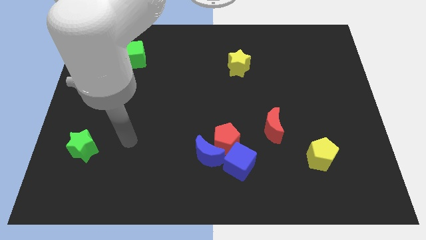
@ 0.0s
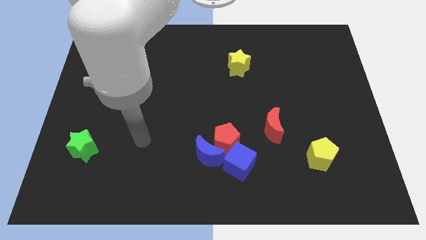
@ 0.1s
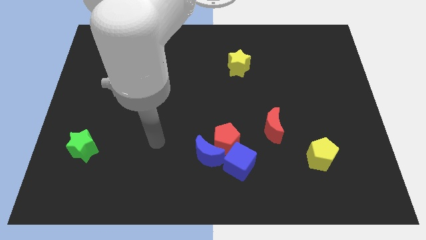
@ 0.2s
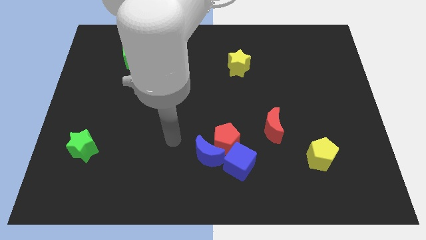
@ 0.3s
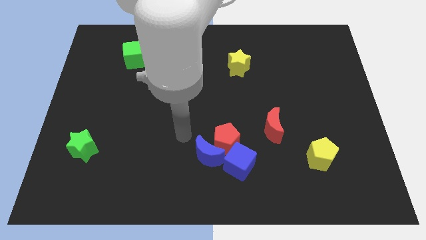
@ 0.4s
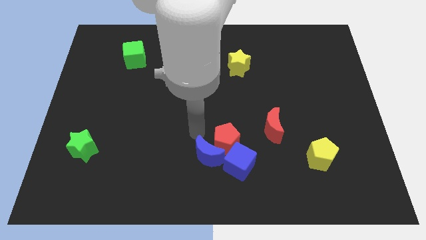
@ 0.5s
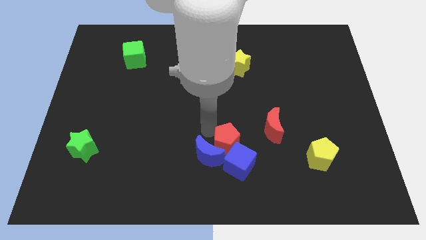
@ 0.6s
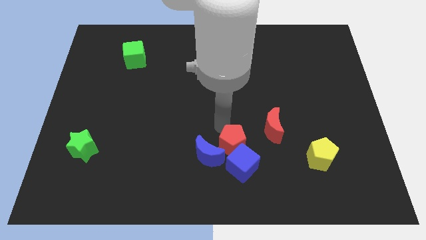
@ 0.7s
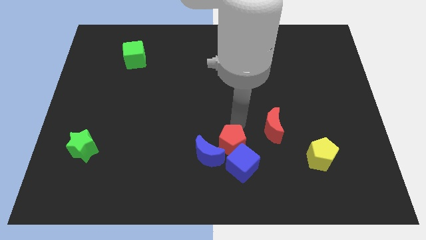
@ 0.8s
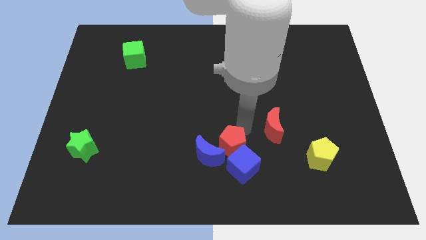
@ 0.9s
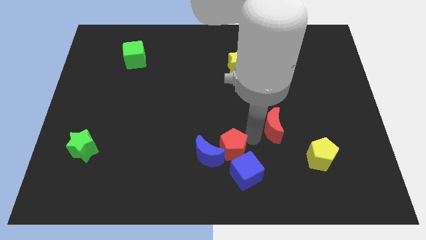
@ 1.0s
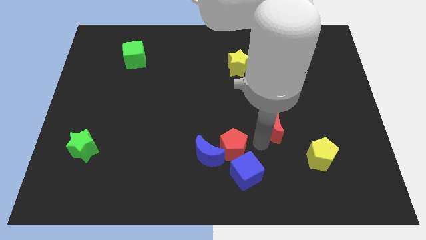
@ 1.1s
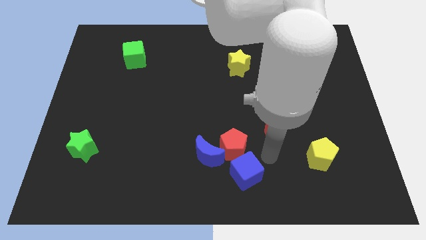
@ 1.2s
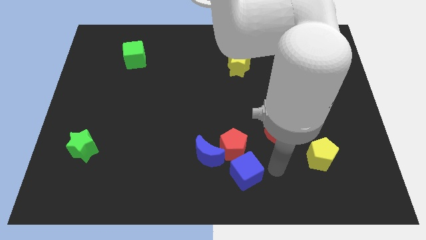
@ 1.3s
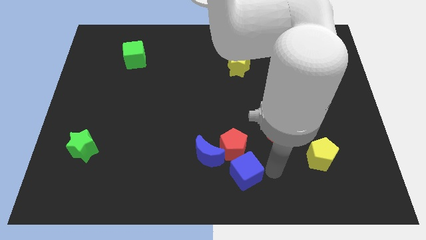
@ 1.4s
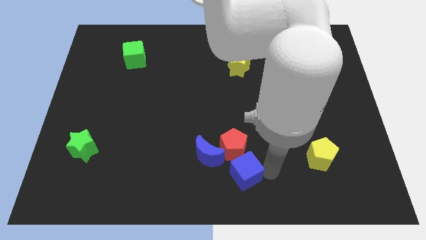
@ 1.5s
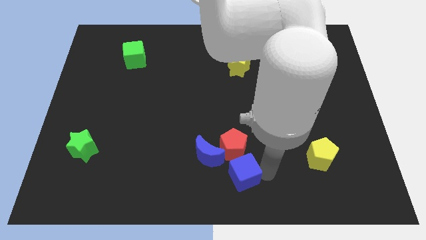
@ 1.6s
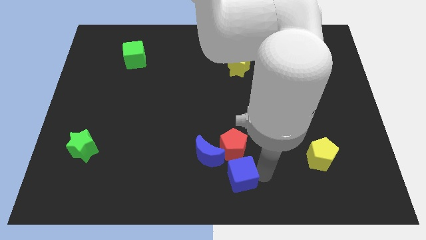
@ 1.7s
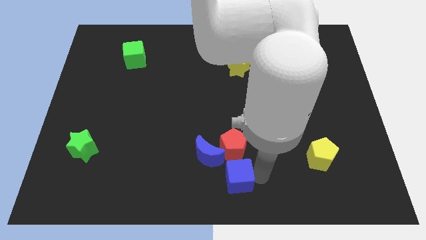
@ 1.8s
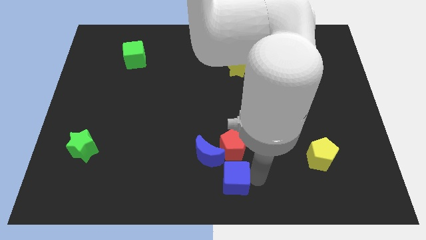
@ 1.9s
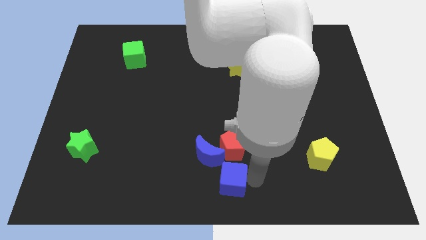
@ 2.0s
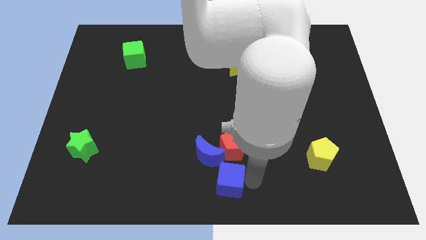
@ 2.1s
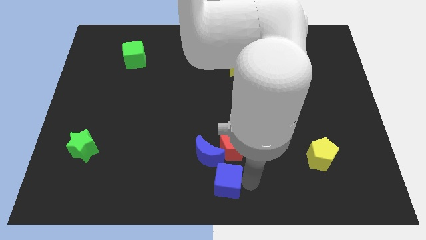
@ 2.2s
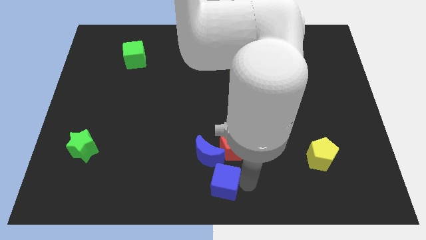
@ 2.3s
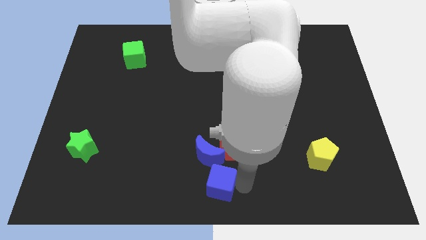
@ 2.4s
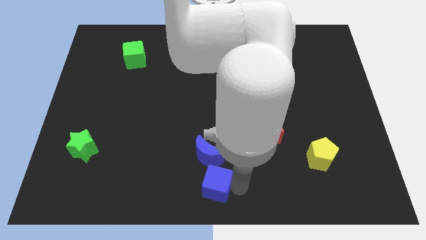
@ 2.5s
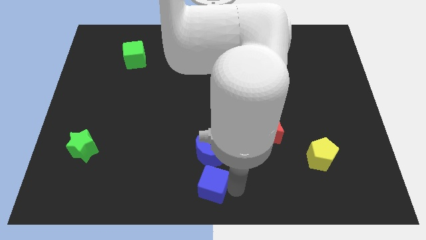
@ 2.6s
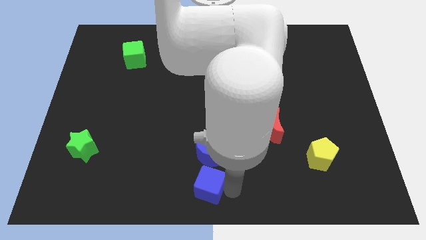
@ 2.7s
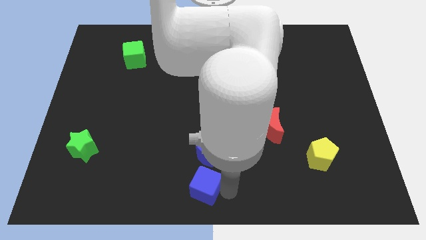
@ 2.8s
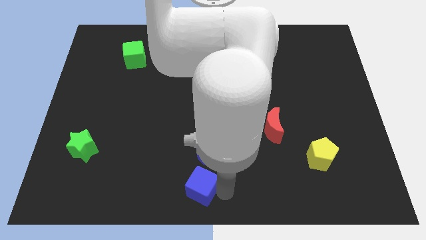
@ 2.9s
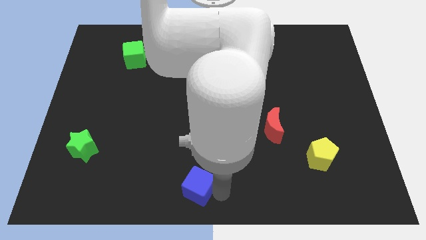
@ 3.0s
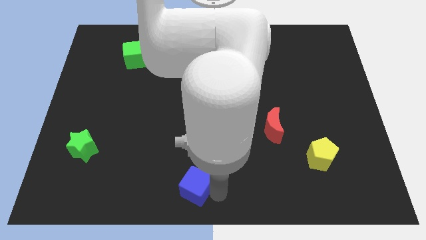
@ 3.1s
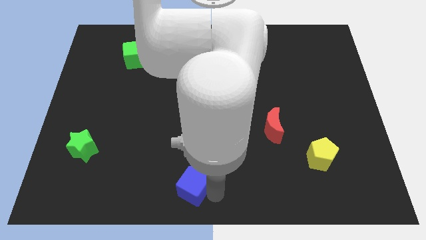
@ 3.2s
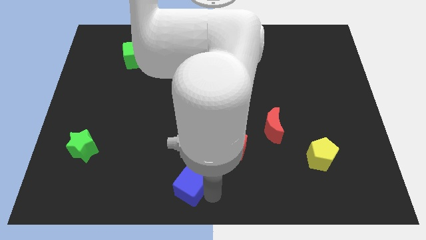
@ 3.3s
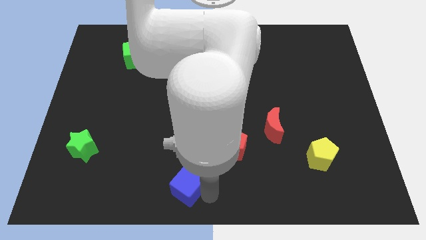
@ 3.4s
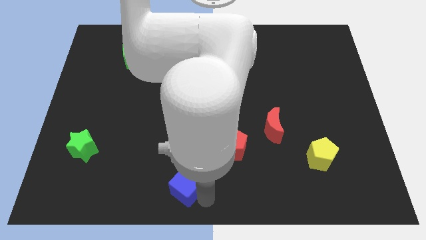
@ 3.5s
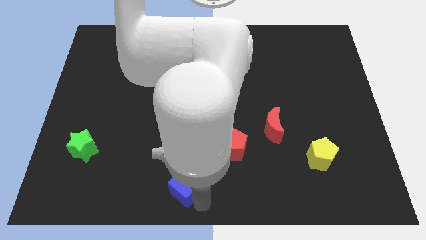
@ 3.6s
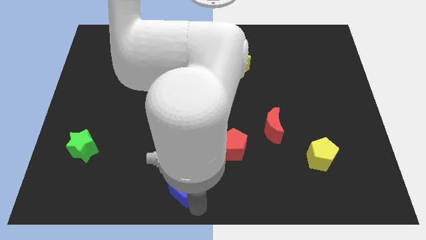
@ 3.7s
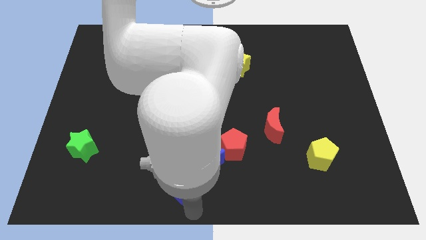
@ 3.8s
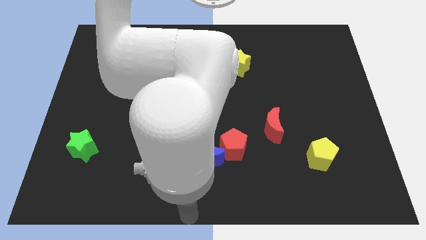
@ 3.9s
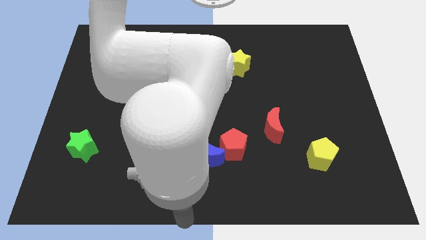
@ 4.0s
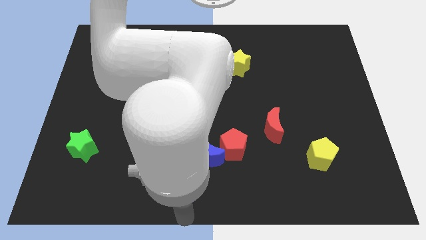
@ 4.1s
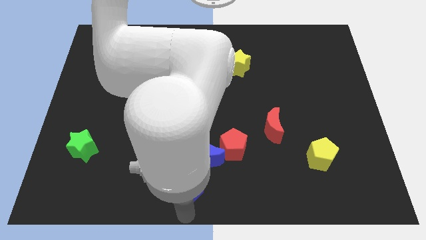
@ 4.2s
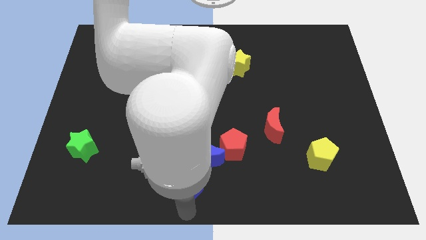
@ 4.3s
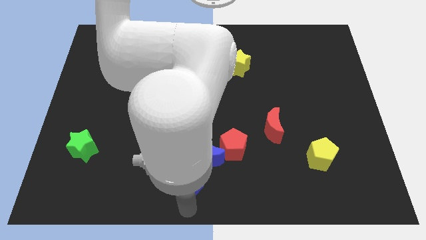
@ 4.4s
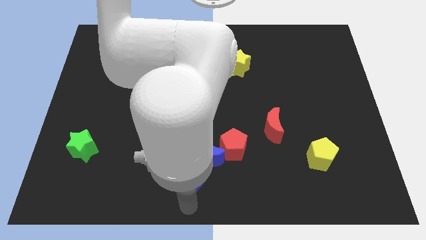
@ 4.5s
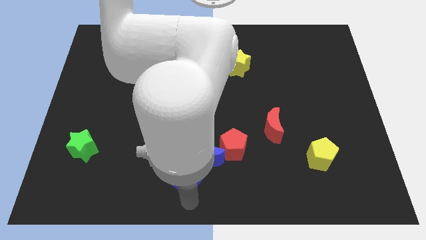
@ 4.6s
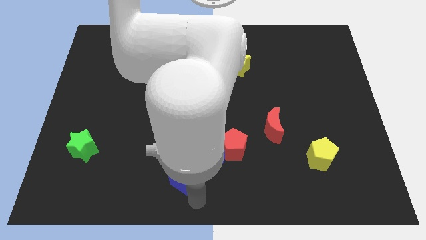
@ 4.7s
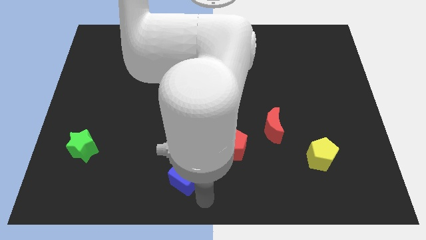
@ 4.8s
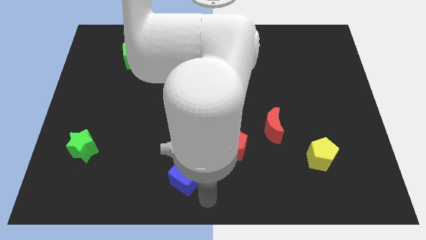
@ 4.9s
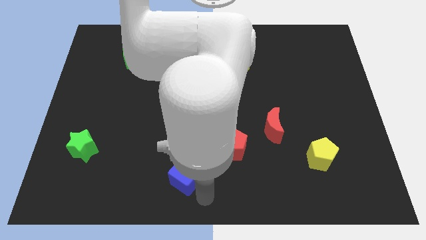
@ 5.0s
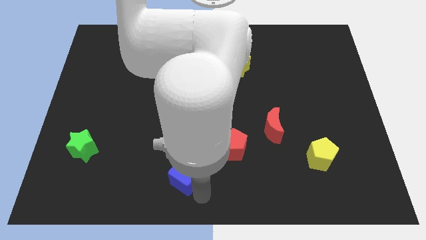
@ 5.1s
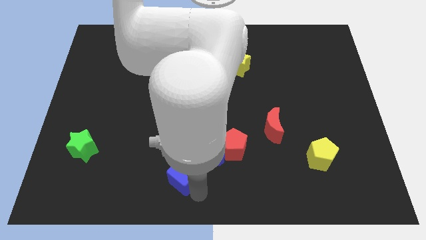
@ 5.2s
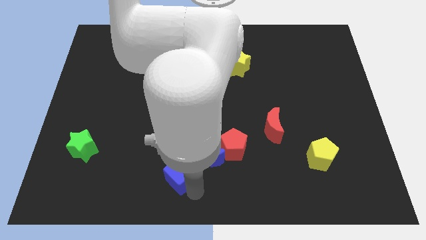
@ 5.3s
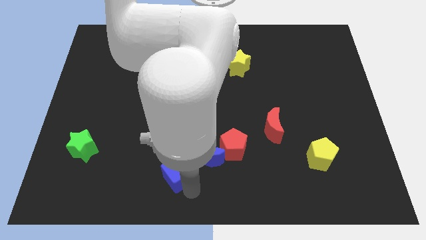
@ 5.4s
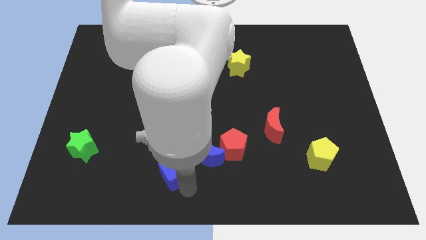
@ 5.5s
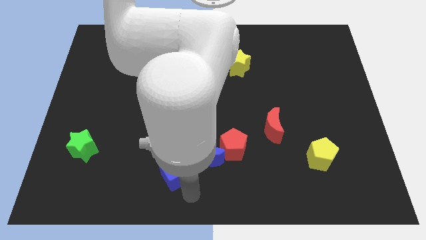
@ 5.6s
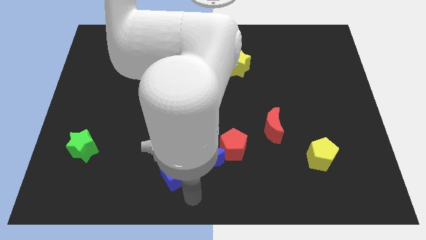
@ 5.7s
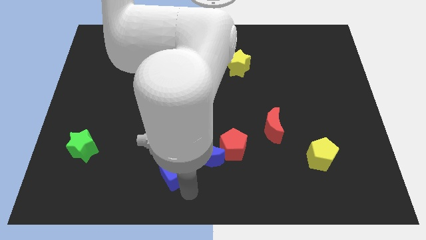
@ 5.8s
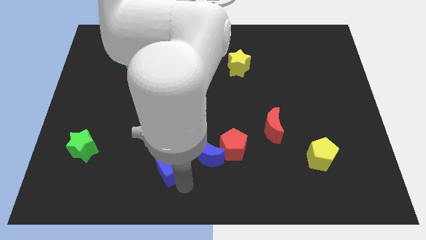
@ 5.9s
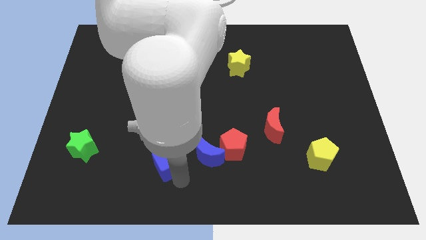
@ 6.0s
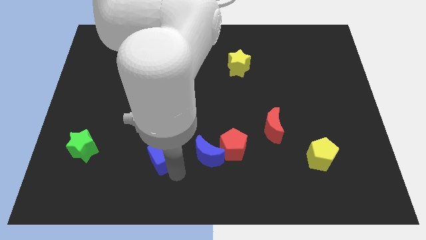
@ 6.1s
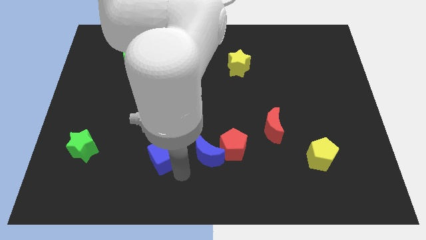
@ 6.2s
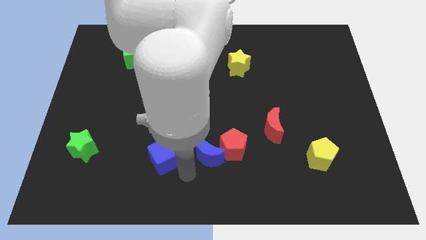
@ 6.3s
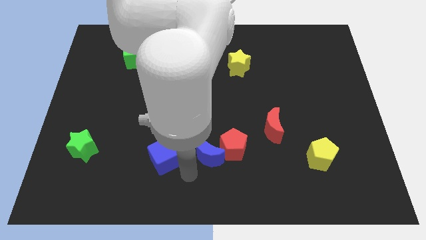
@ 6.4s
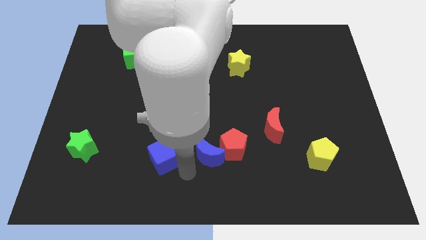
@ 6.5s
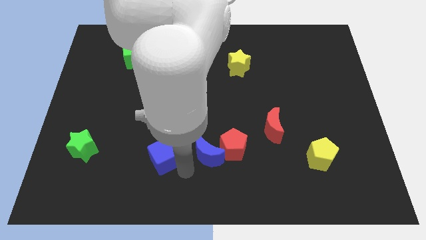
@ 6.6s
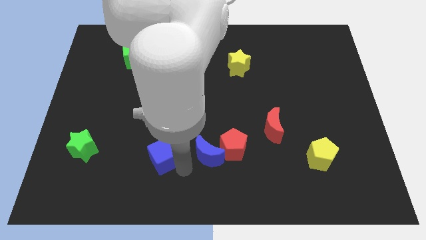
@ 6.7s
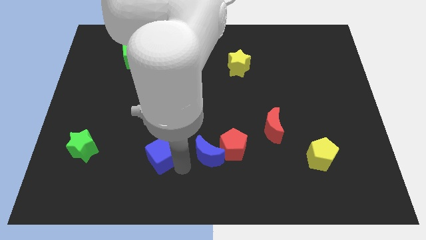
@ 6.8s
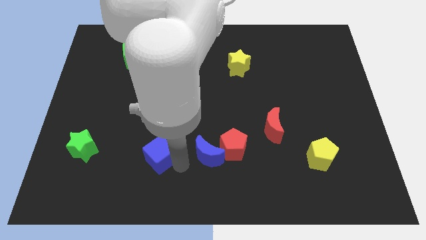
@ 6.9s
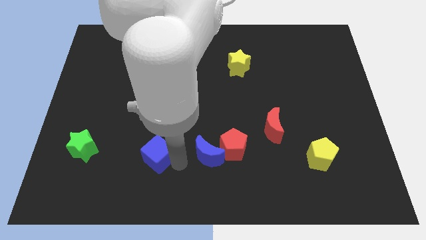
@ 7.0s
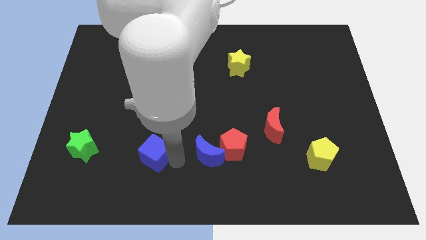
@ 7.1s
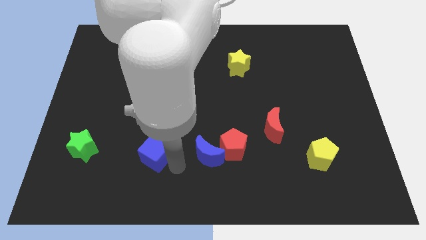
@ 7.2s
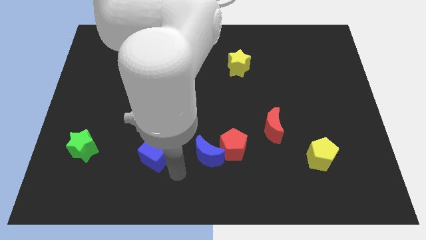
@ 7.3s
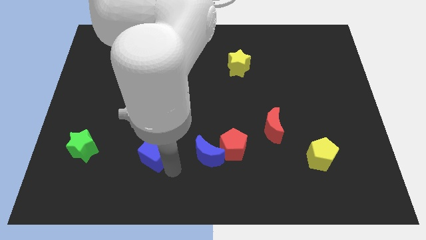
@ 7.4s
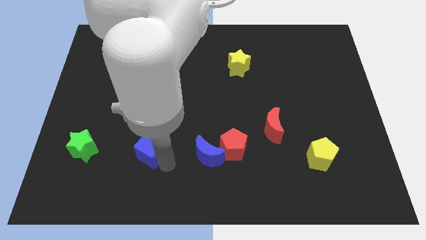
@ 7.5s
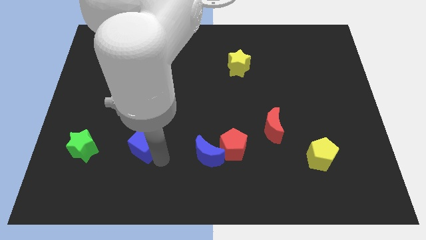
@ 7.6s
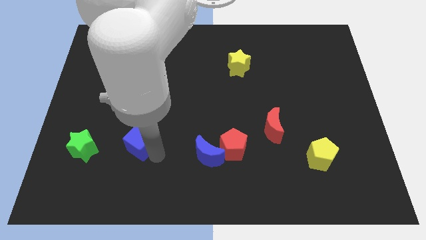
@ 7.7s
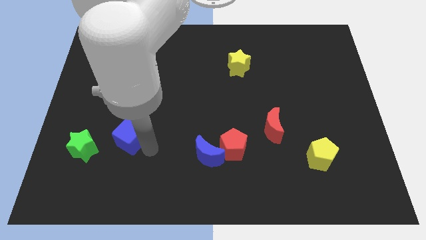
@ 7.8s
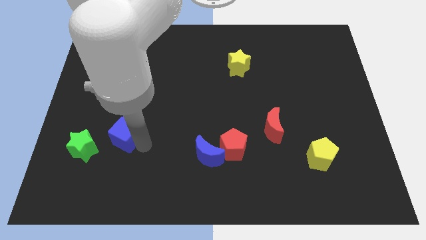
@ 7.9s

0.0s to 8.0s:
push the blue cube to the top right side of the green star
